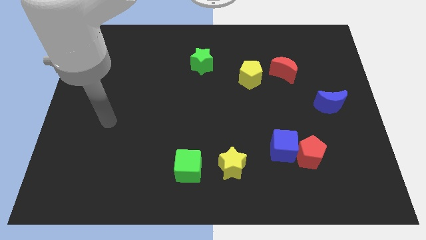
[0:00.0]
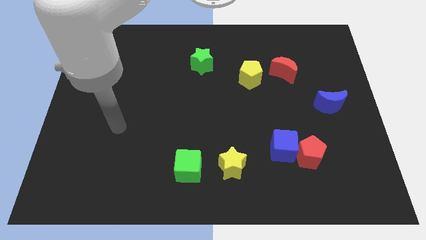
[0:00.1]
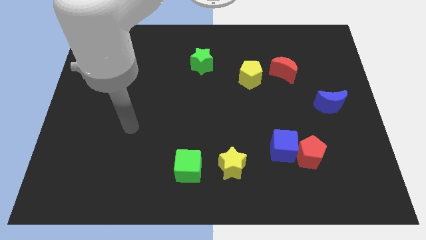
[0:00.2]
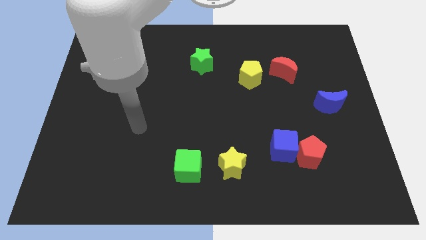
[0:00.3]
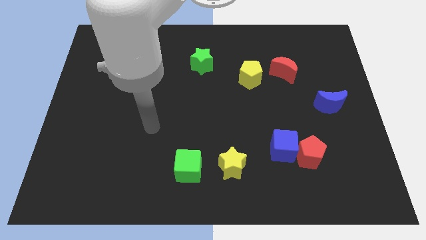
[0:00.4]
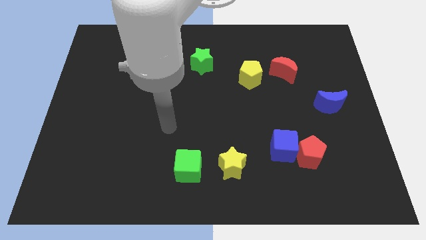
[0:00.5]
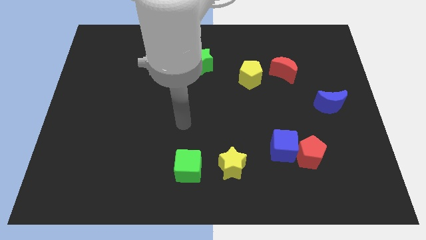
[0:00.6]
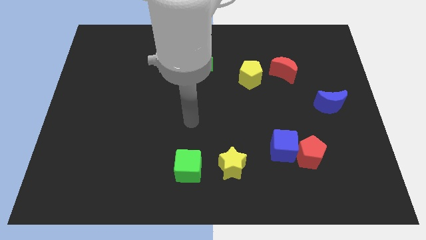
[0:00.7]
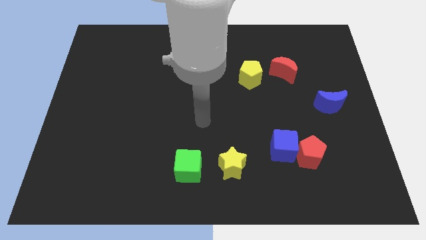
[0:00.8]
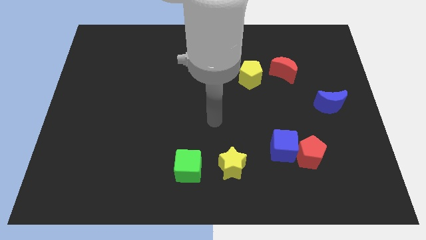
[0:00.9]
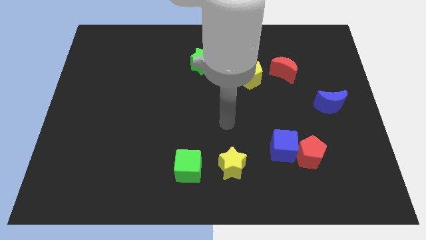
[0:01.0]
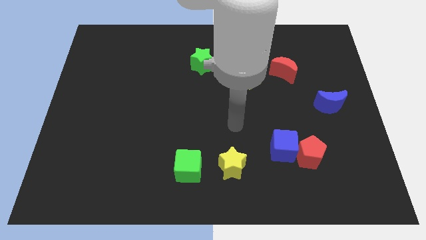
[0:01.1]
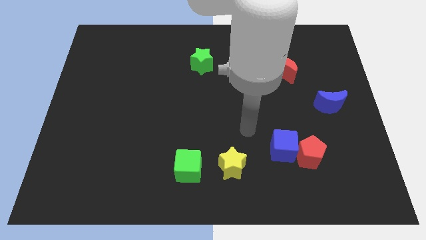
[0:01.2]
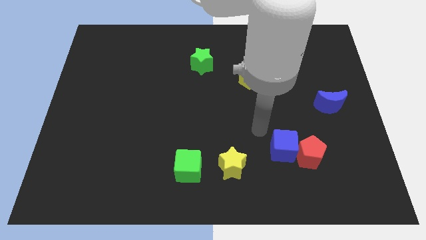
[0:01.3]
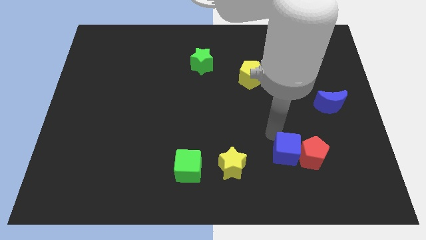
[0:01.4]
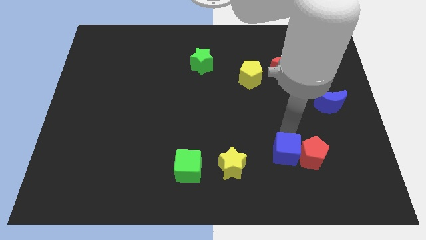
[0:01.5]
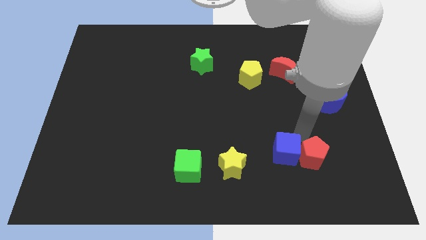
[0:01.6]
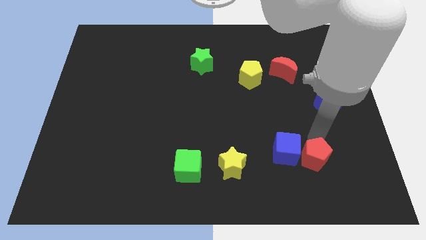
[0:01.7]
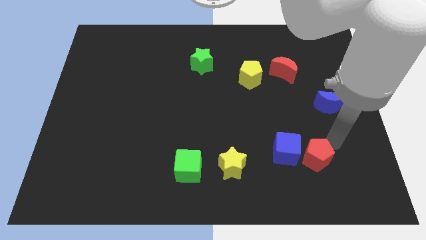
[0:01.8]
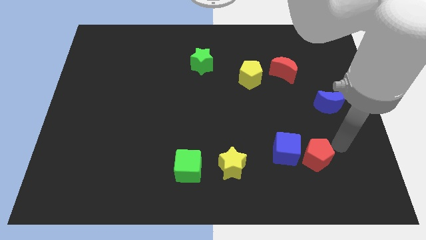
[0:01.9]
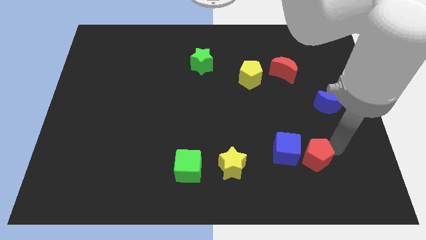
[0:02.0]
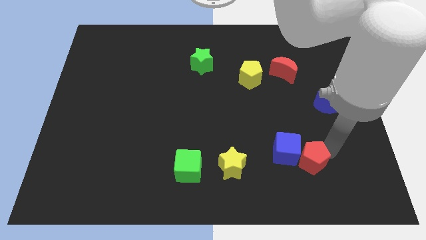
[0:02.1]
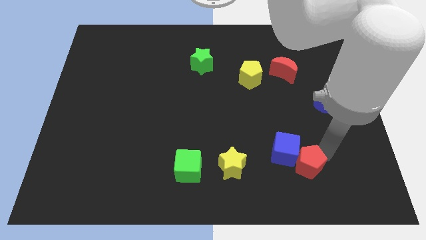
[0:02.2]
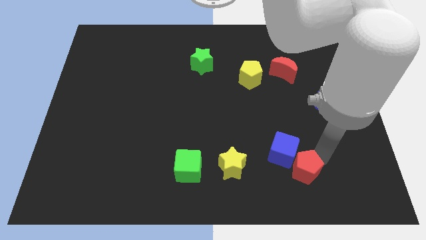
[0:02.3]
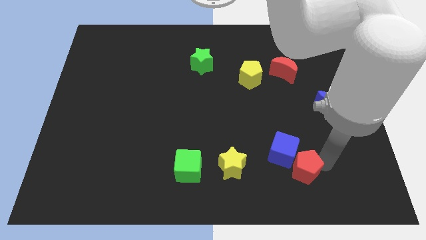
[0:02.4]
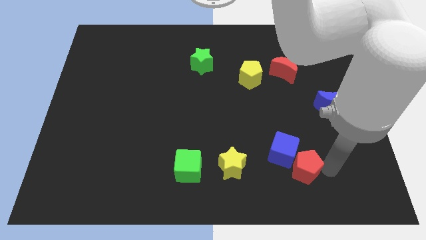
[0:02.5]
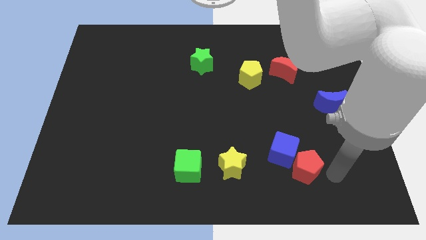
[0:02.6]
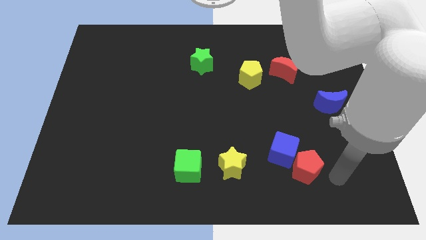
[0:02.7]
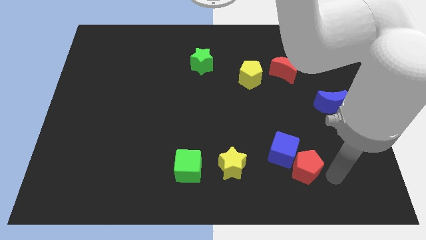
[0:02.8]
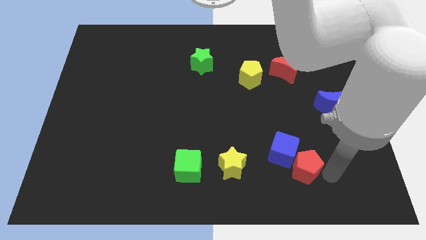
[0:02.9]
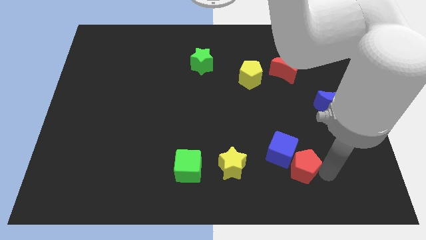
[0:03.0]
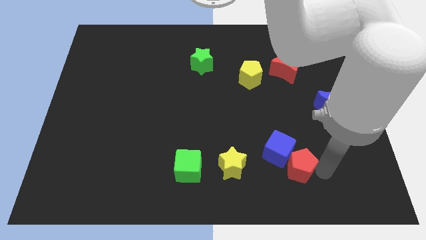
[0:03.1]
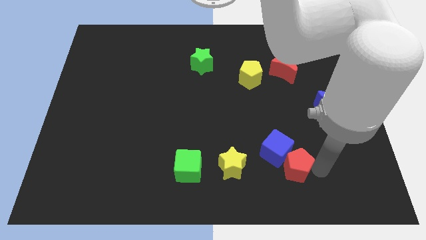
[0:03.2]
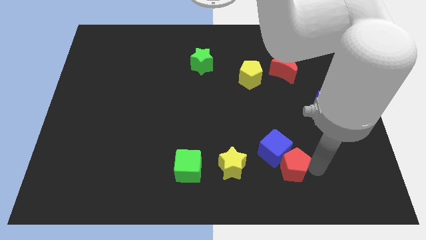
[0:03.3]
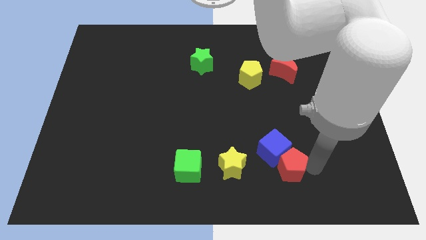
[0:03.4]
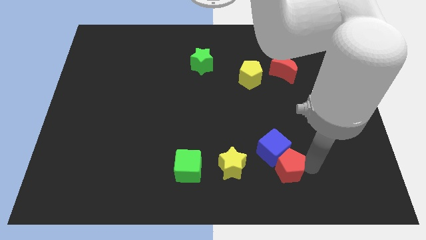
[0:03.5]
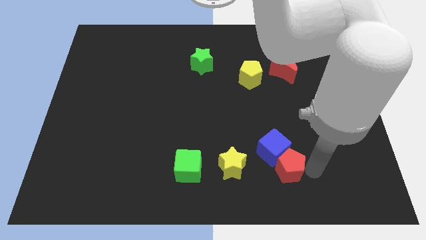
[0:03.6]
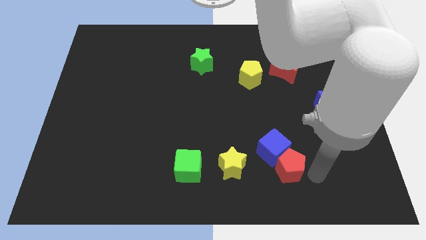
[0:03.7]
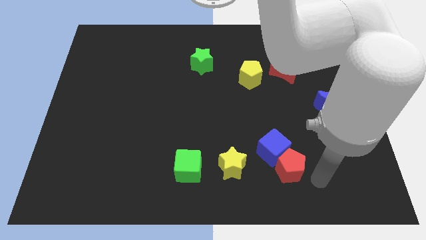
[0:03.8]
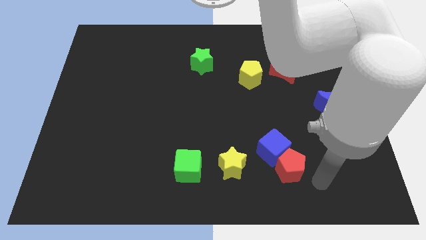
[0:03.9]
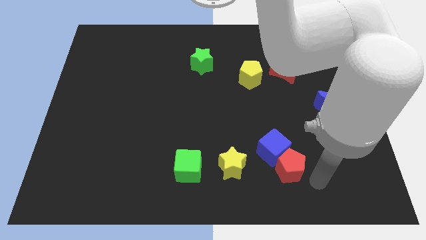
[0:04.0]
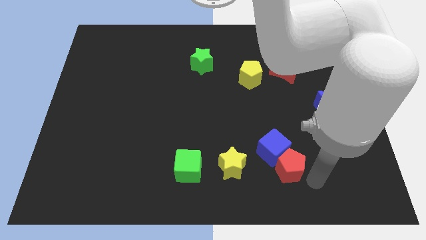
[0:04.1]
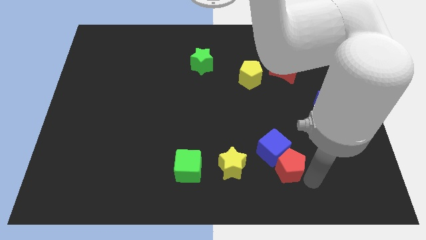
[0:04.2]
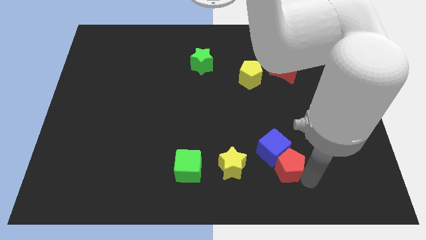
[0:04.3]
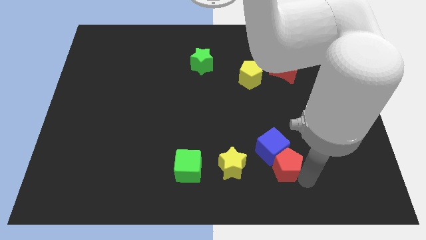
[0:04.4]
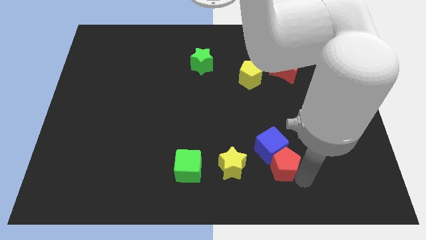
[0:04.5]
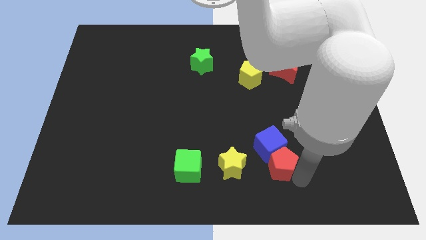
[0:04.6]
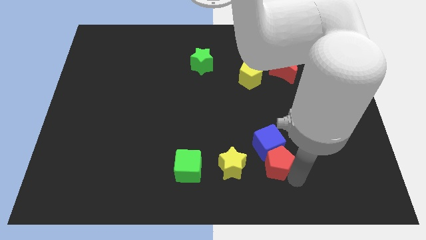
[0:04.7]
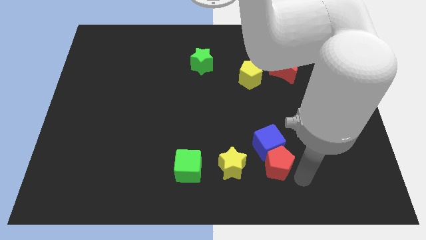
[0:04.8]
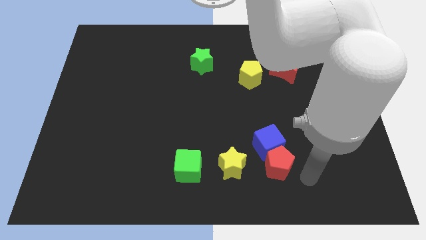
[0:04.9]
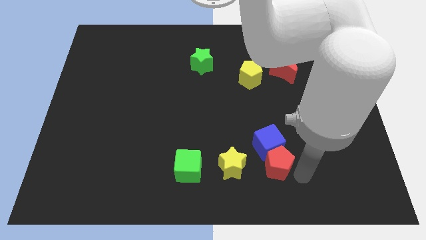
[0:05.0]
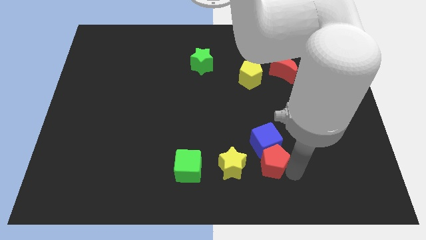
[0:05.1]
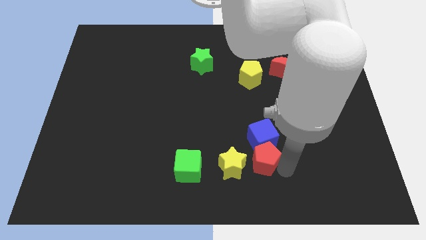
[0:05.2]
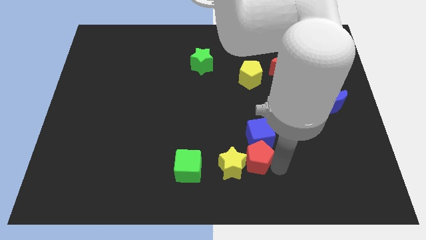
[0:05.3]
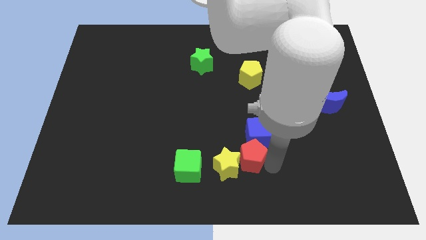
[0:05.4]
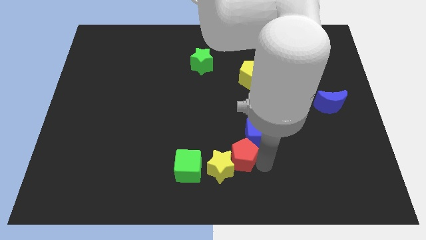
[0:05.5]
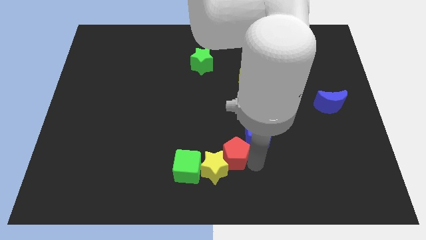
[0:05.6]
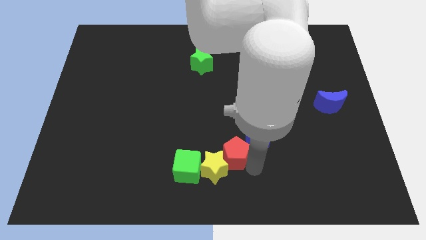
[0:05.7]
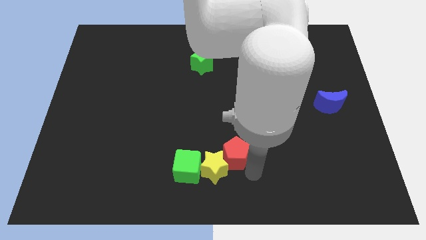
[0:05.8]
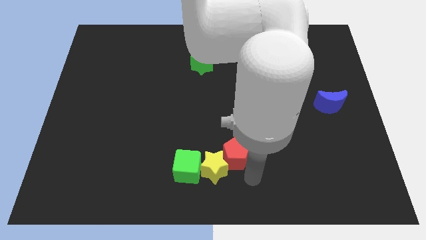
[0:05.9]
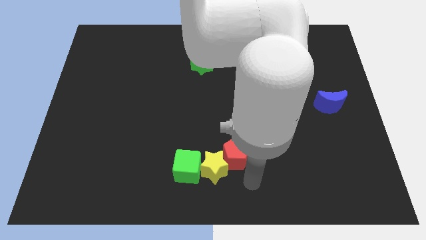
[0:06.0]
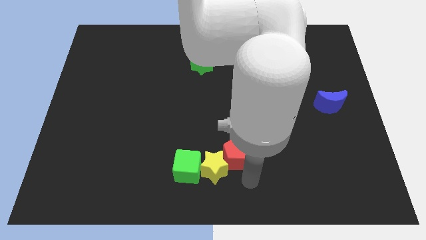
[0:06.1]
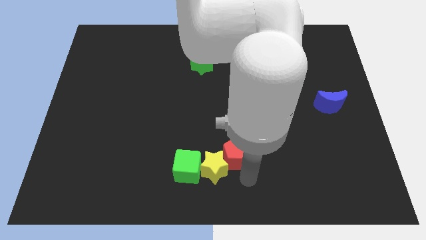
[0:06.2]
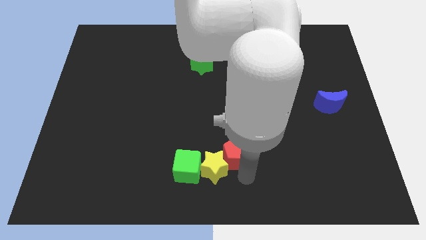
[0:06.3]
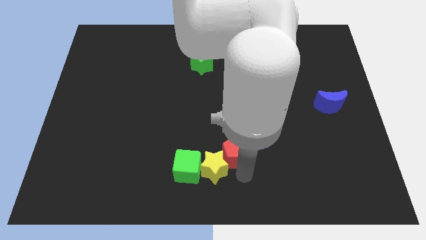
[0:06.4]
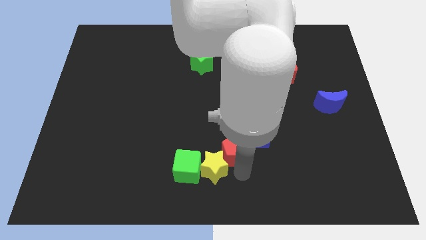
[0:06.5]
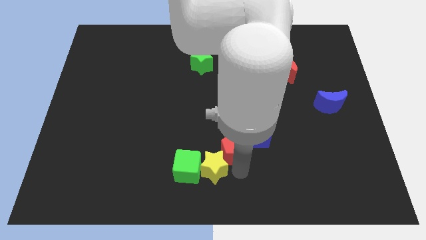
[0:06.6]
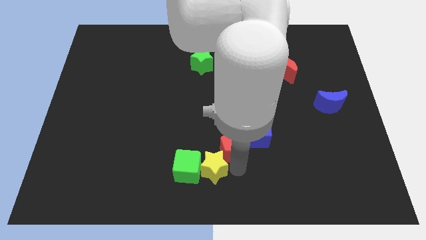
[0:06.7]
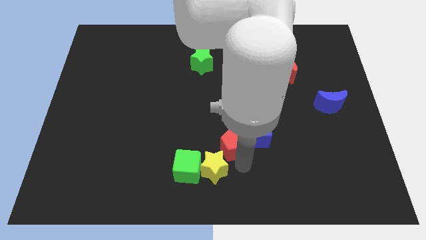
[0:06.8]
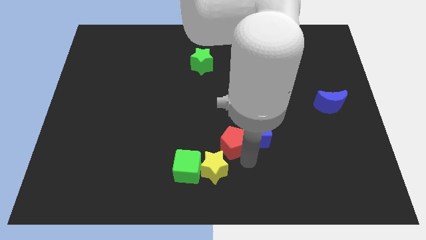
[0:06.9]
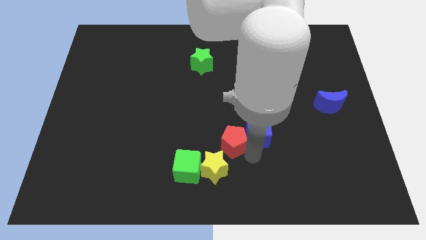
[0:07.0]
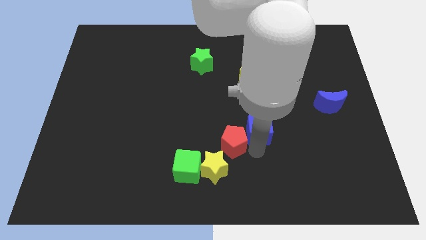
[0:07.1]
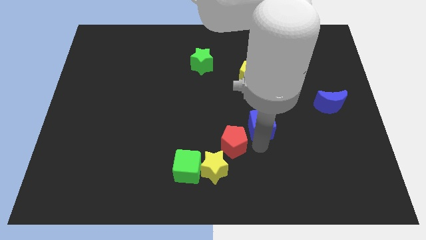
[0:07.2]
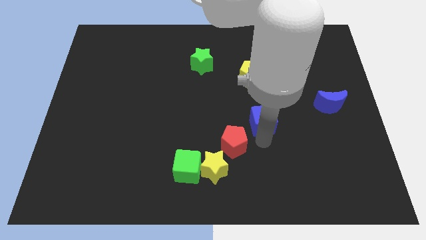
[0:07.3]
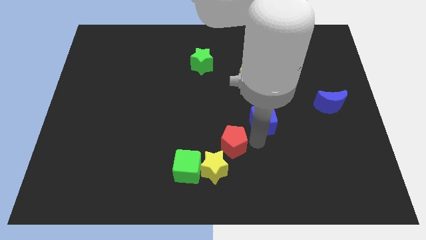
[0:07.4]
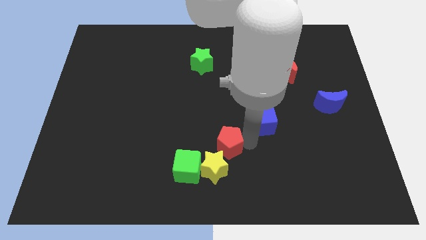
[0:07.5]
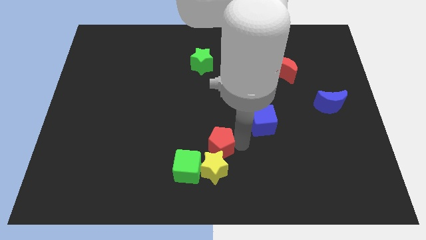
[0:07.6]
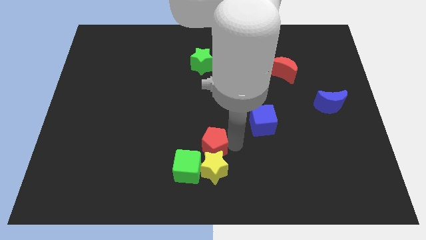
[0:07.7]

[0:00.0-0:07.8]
slide the red pentagon to the left

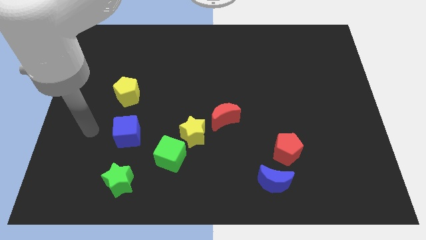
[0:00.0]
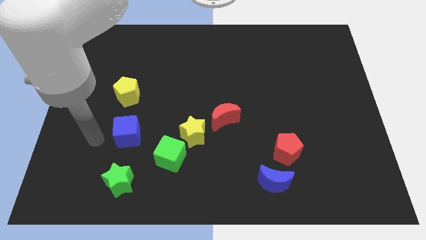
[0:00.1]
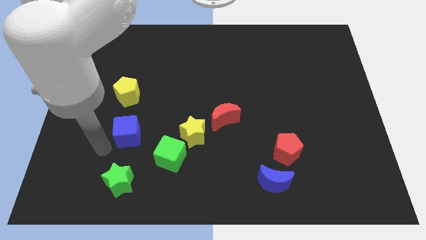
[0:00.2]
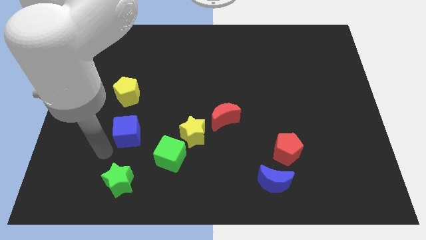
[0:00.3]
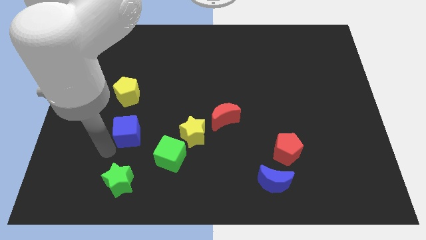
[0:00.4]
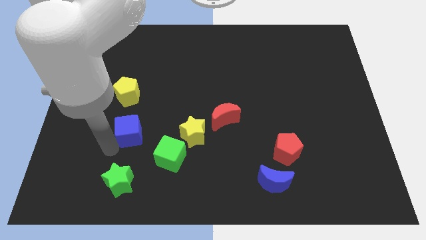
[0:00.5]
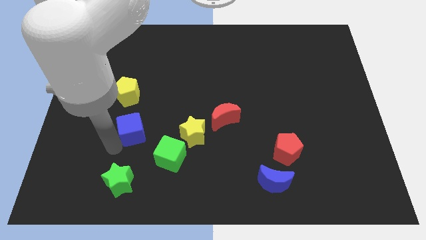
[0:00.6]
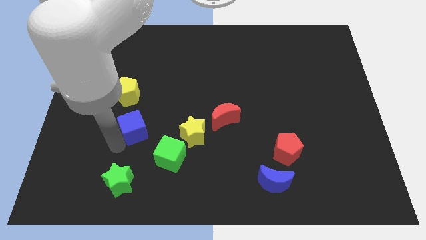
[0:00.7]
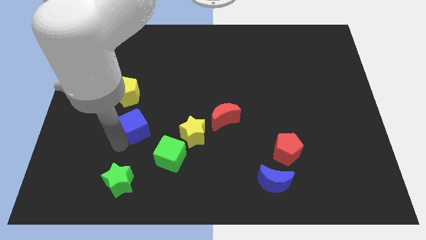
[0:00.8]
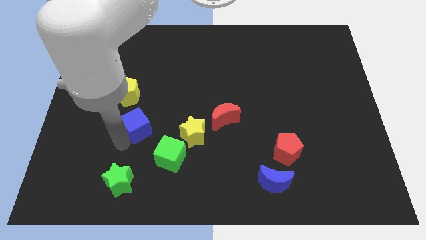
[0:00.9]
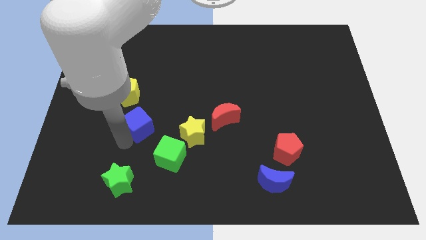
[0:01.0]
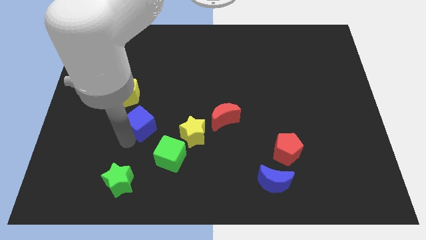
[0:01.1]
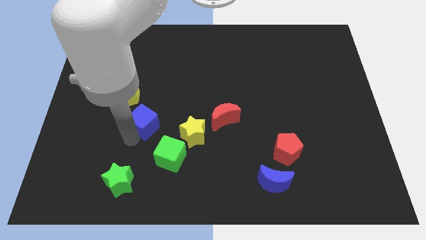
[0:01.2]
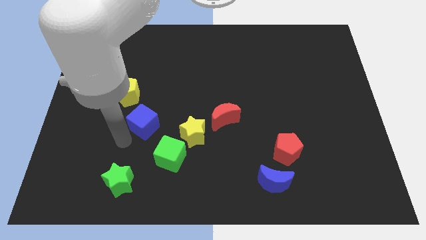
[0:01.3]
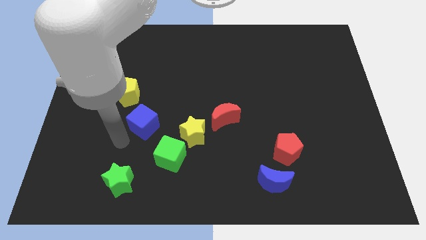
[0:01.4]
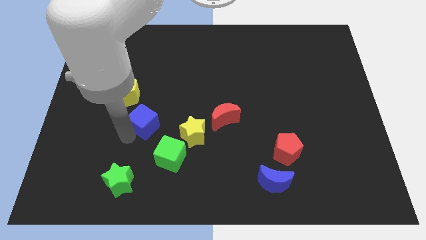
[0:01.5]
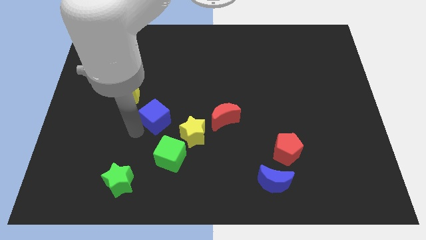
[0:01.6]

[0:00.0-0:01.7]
slightly move the blue cube up and then right
